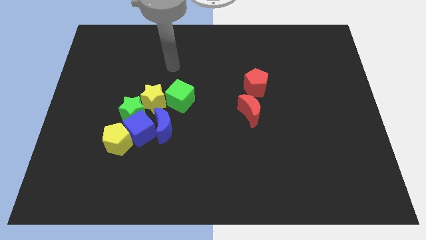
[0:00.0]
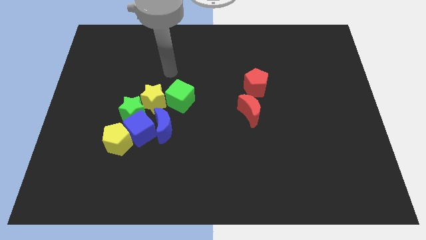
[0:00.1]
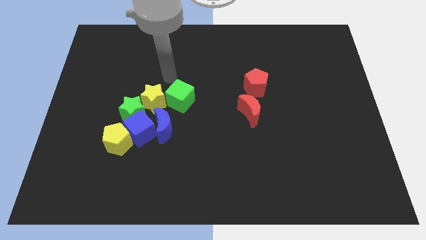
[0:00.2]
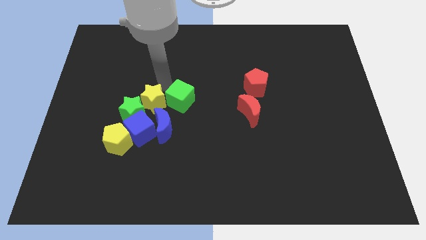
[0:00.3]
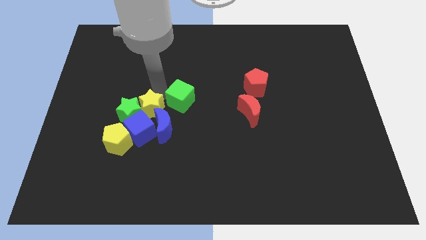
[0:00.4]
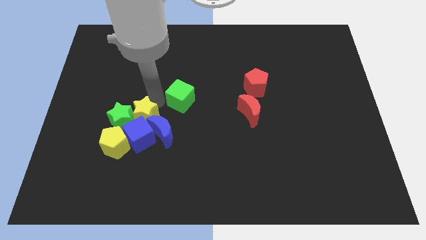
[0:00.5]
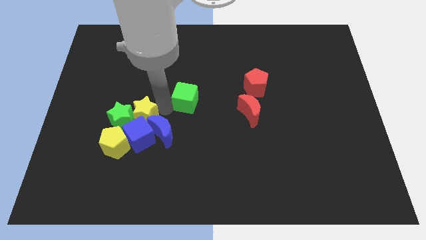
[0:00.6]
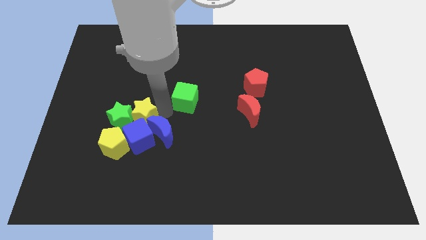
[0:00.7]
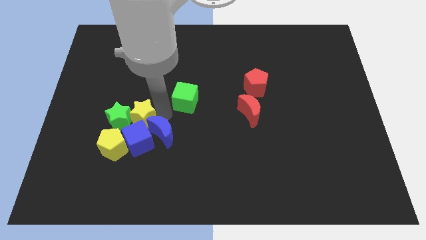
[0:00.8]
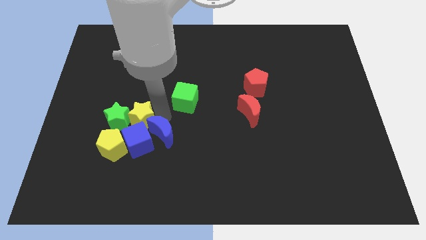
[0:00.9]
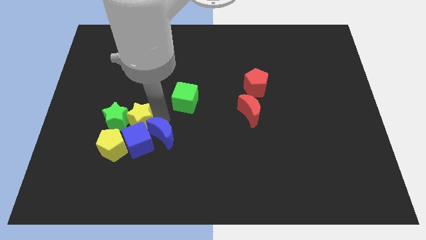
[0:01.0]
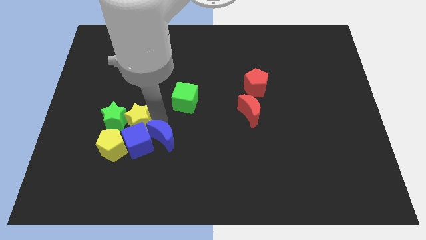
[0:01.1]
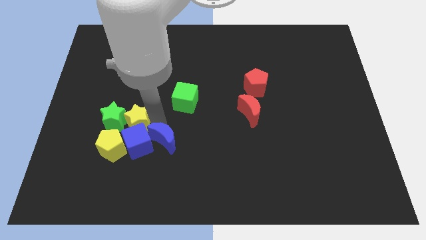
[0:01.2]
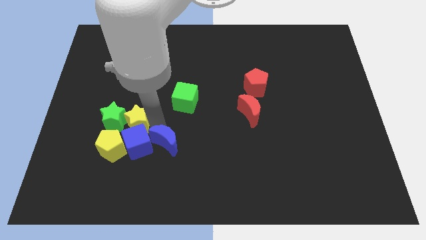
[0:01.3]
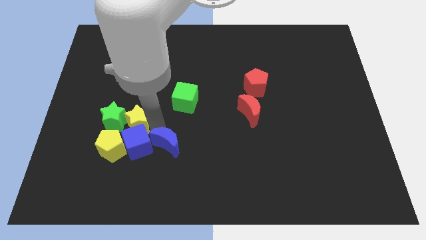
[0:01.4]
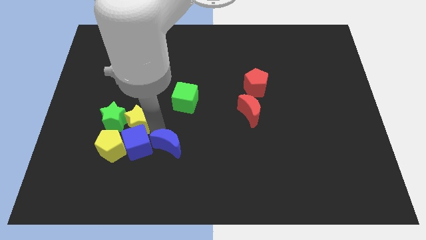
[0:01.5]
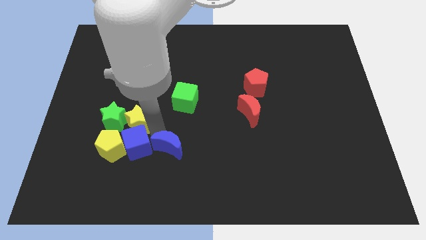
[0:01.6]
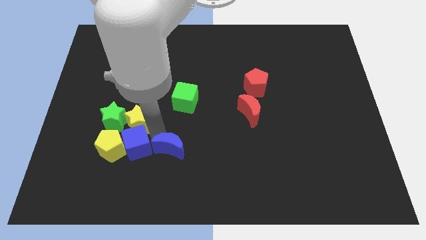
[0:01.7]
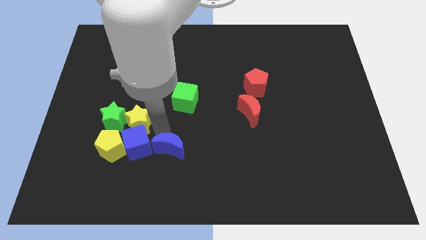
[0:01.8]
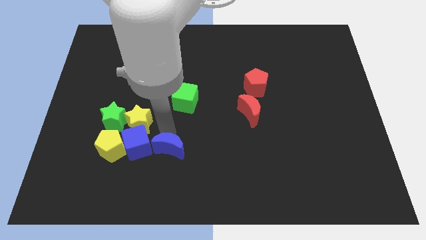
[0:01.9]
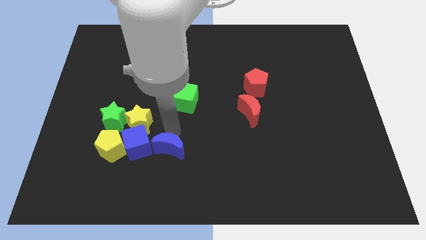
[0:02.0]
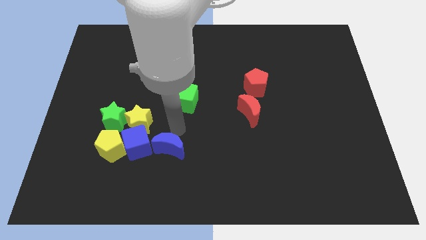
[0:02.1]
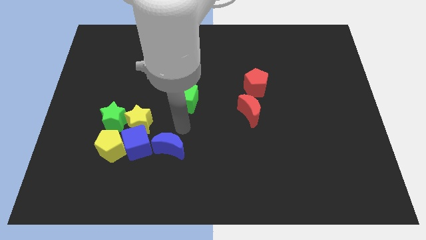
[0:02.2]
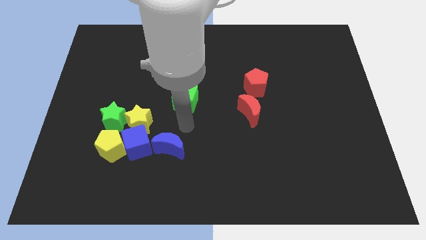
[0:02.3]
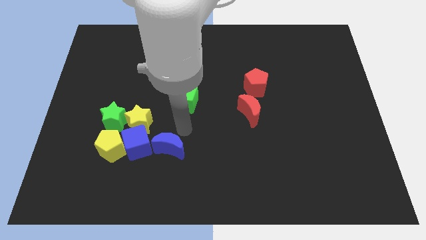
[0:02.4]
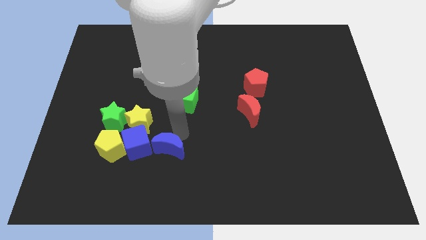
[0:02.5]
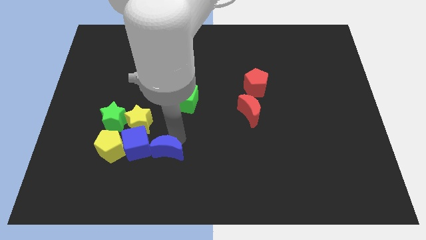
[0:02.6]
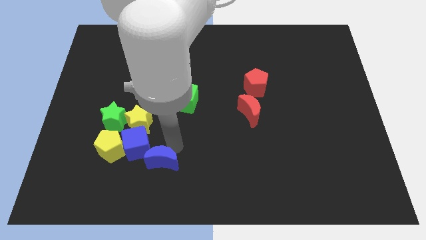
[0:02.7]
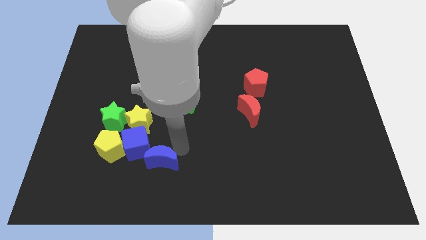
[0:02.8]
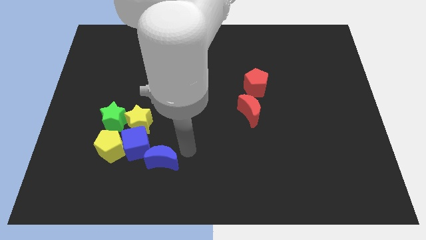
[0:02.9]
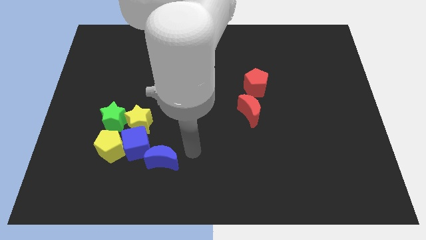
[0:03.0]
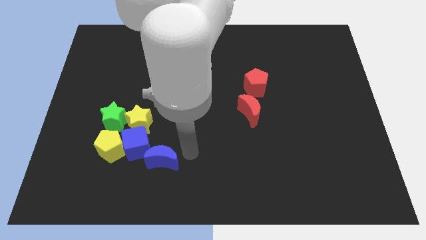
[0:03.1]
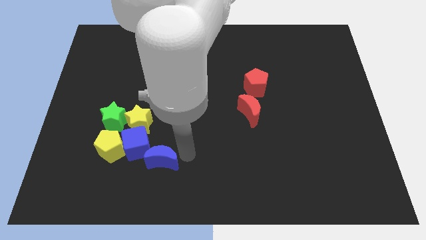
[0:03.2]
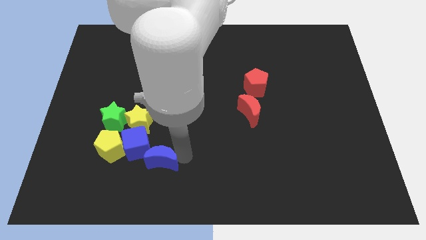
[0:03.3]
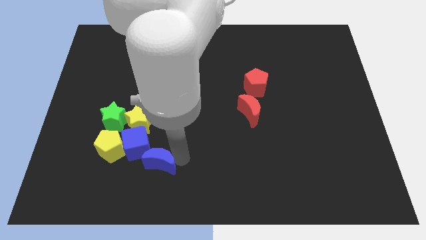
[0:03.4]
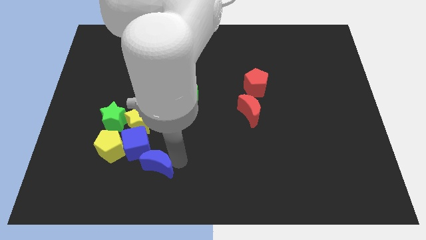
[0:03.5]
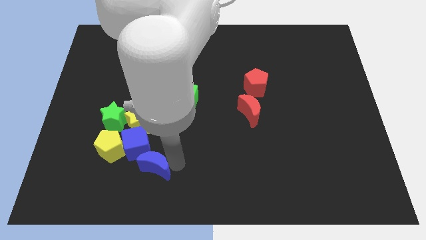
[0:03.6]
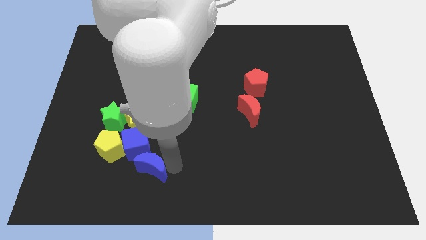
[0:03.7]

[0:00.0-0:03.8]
slightly push the blue moon downwards and then left

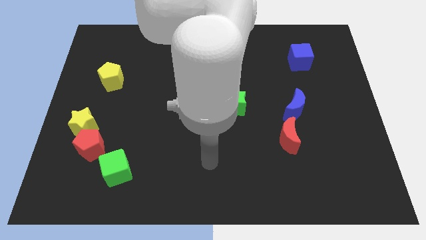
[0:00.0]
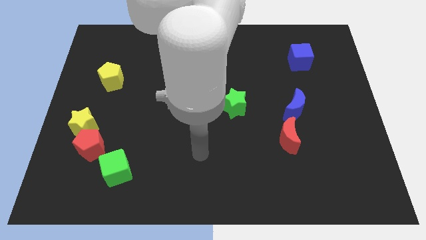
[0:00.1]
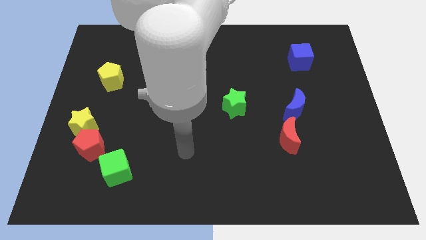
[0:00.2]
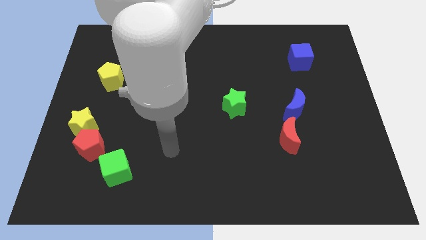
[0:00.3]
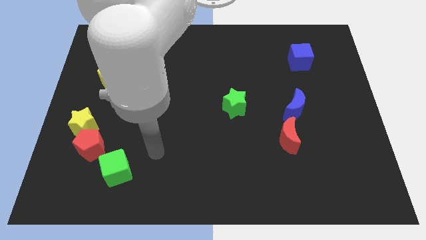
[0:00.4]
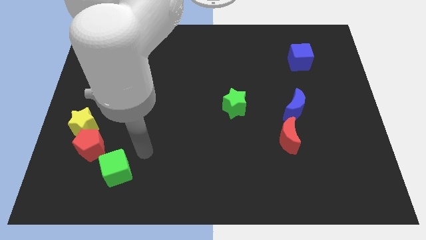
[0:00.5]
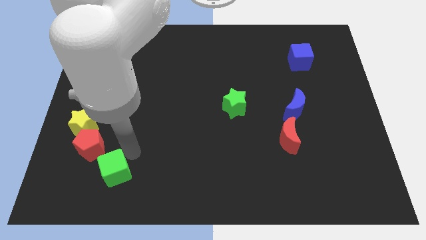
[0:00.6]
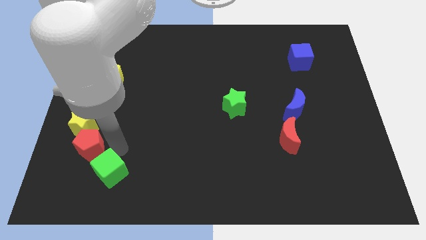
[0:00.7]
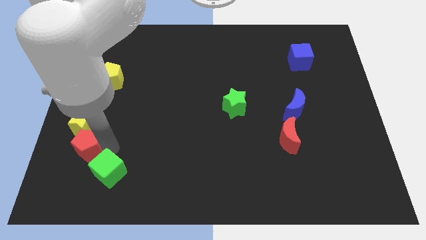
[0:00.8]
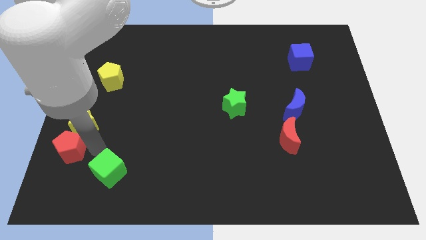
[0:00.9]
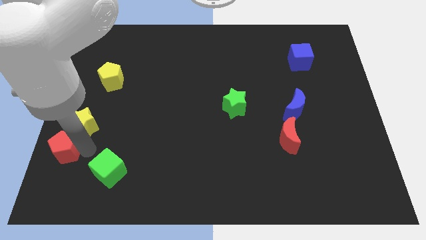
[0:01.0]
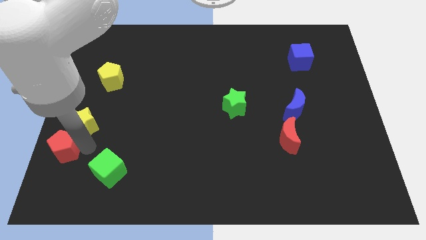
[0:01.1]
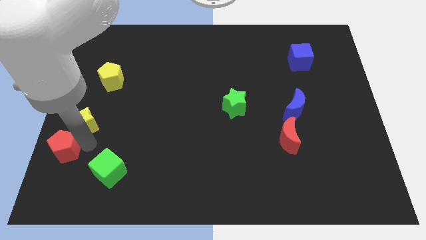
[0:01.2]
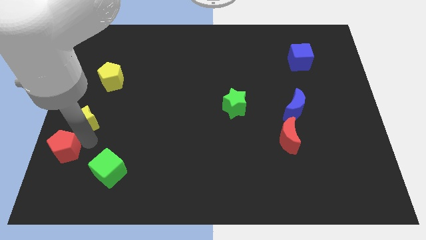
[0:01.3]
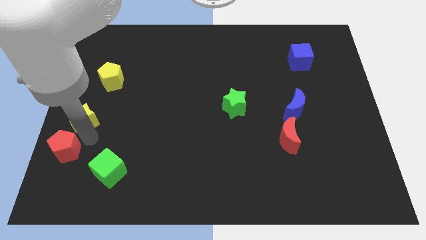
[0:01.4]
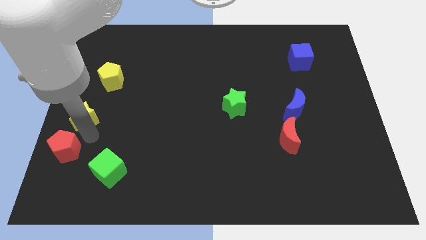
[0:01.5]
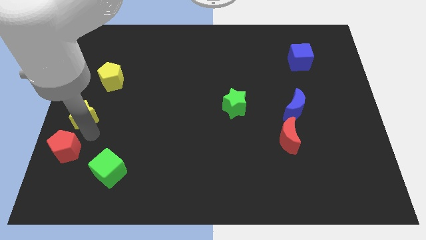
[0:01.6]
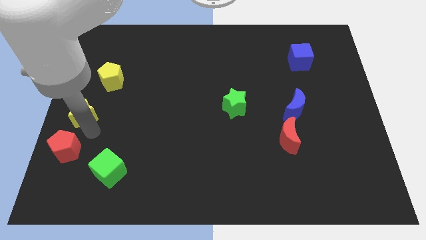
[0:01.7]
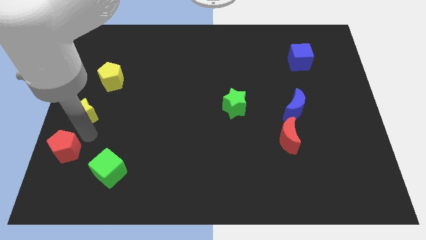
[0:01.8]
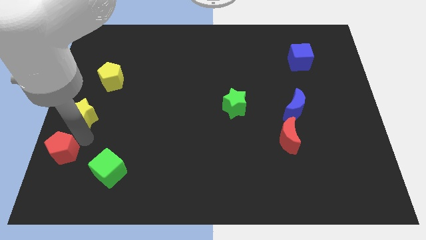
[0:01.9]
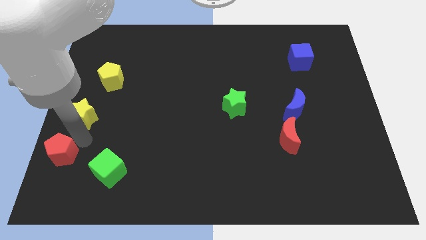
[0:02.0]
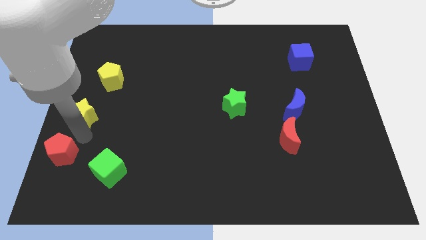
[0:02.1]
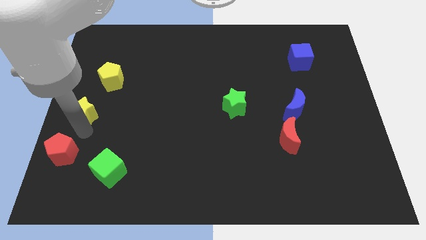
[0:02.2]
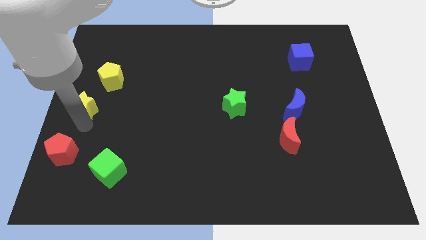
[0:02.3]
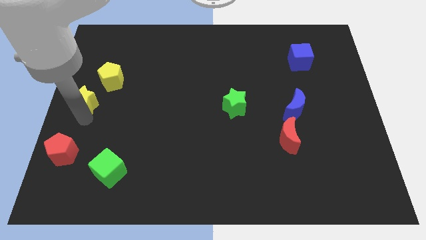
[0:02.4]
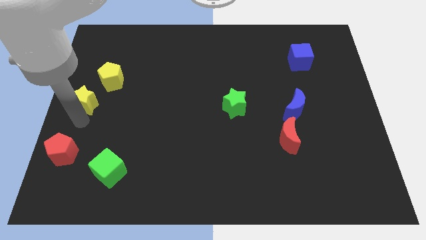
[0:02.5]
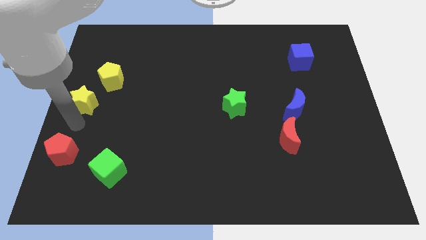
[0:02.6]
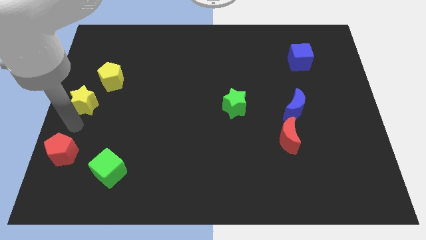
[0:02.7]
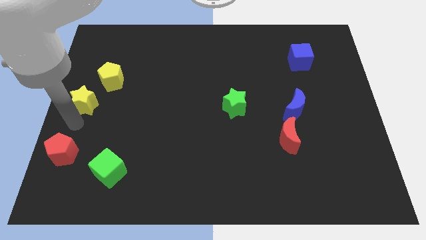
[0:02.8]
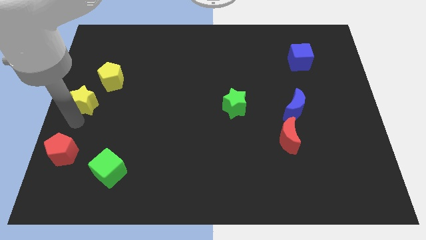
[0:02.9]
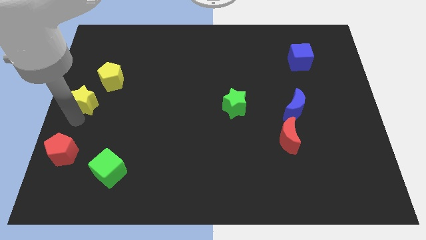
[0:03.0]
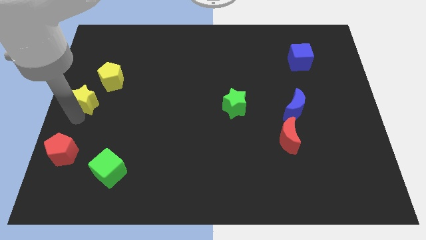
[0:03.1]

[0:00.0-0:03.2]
push the yellow star upwards a little bit

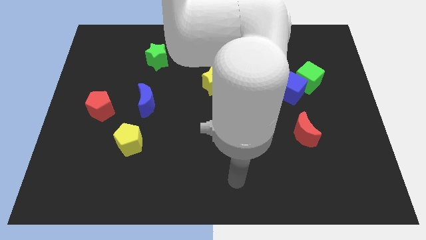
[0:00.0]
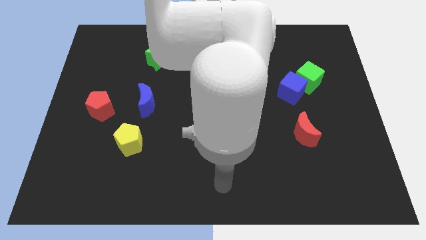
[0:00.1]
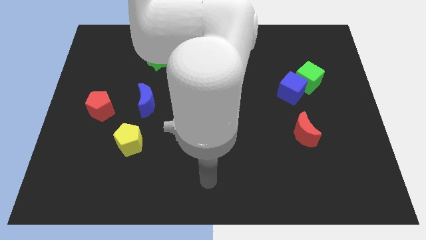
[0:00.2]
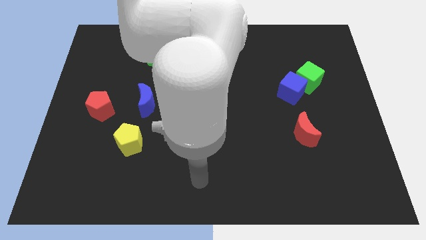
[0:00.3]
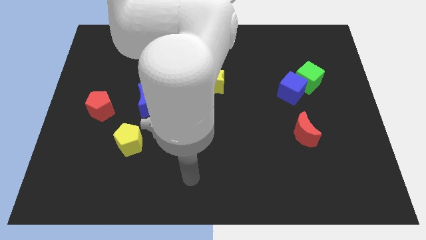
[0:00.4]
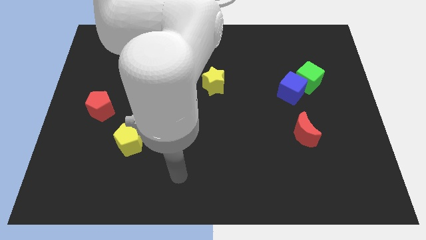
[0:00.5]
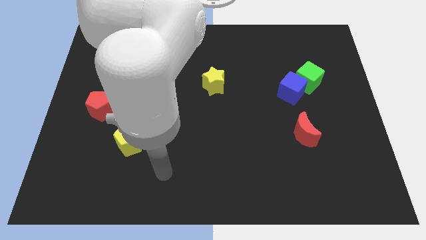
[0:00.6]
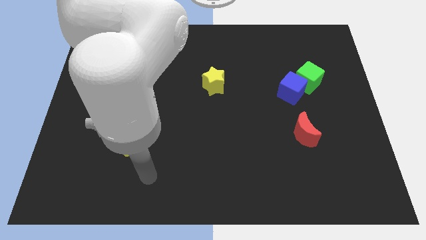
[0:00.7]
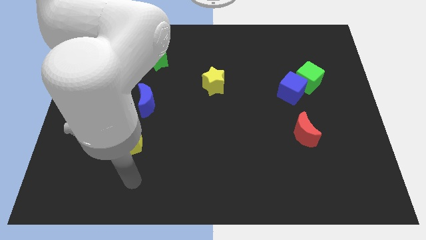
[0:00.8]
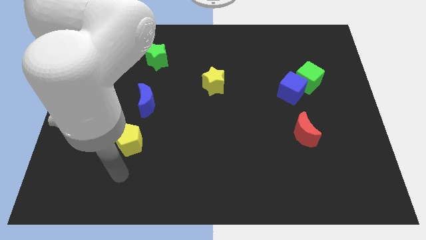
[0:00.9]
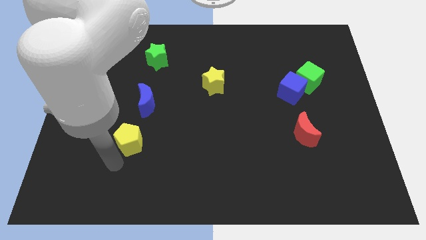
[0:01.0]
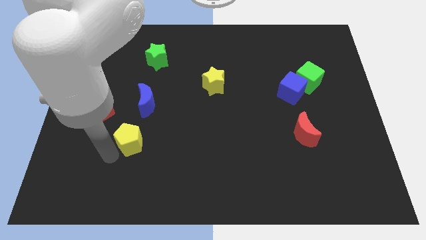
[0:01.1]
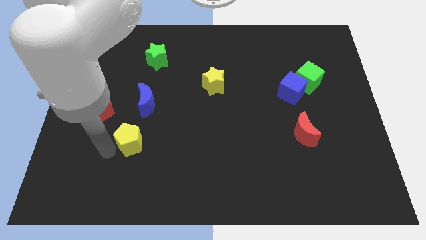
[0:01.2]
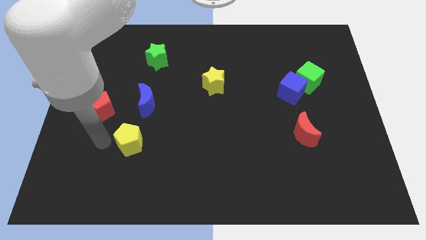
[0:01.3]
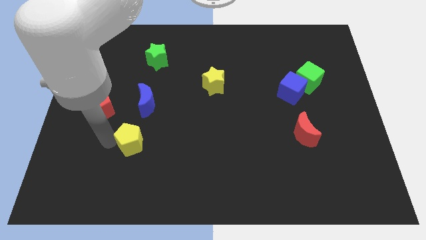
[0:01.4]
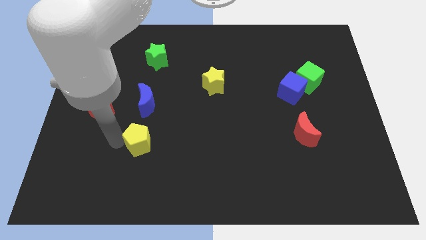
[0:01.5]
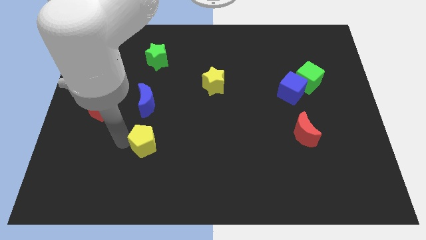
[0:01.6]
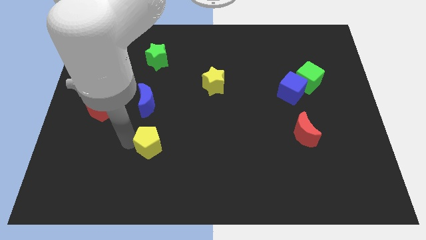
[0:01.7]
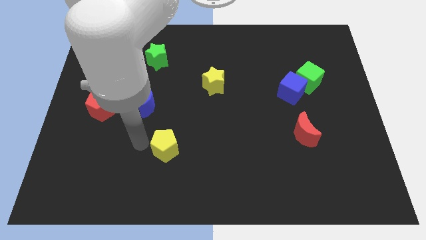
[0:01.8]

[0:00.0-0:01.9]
slide the yellow pentagon right slightly
